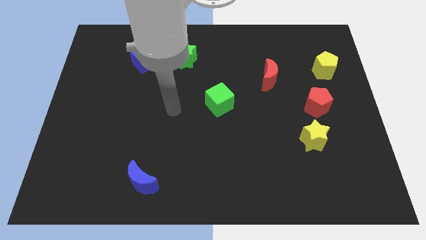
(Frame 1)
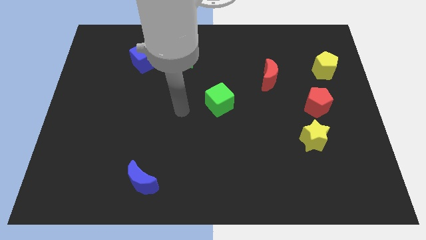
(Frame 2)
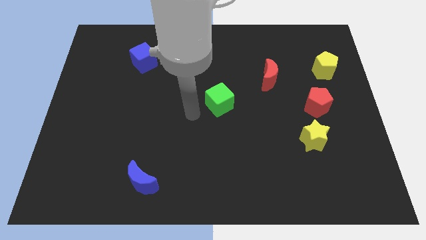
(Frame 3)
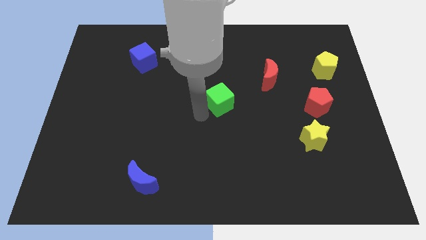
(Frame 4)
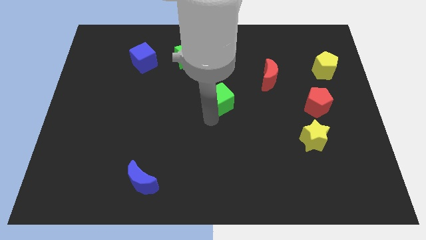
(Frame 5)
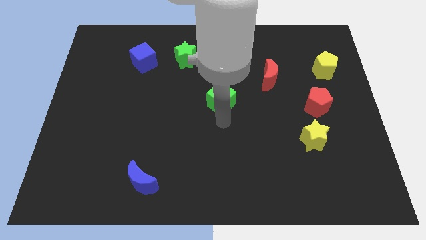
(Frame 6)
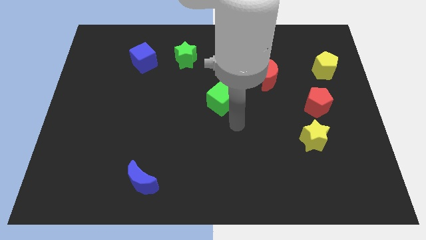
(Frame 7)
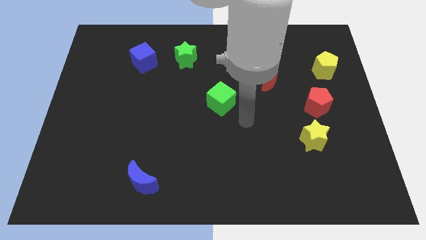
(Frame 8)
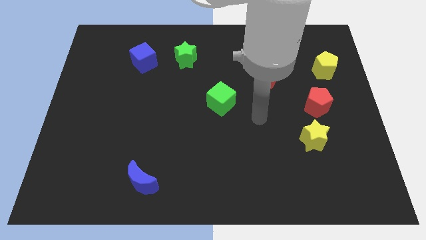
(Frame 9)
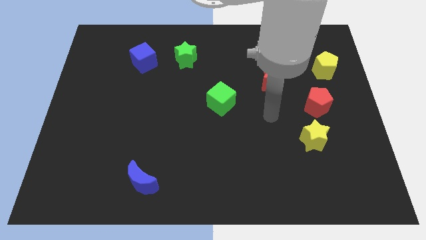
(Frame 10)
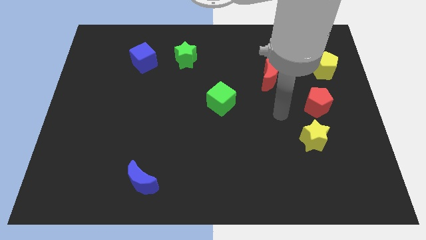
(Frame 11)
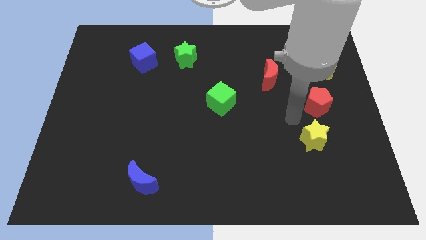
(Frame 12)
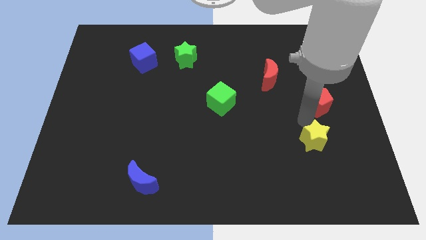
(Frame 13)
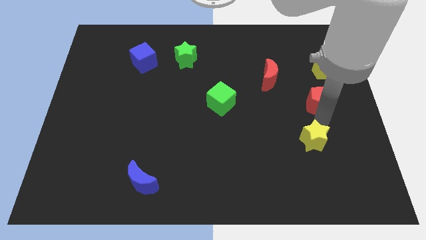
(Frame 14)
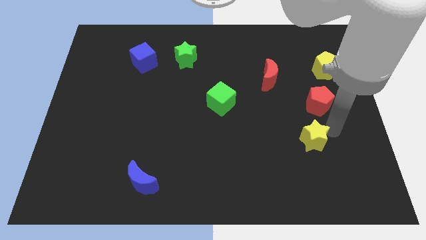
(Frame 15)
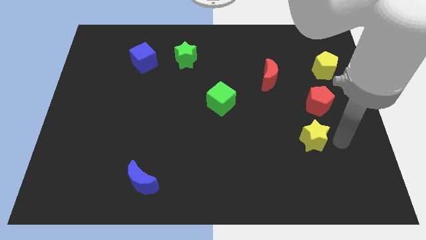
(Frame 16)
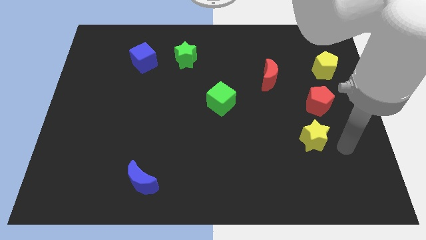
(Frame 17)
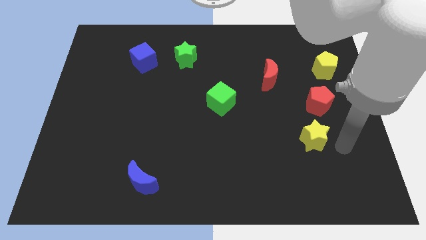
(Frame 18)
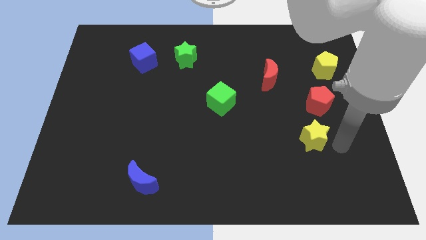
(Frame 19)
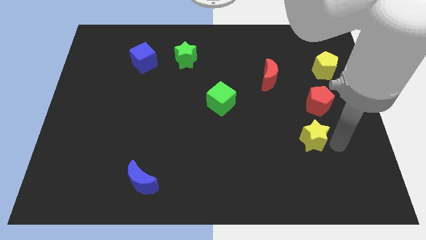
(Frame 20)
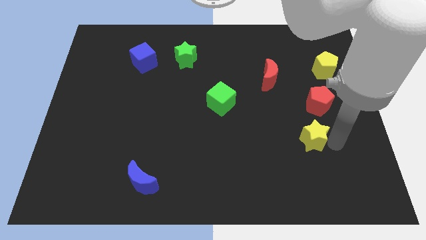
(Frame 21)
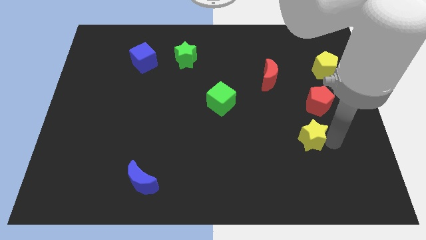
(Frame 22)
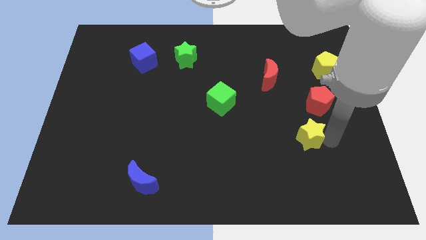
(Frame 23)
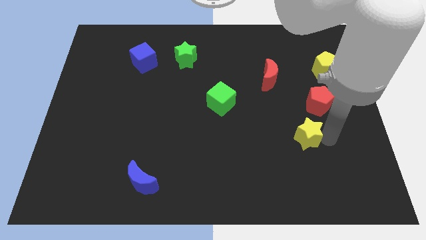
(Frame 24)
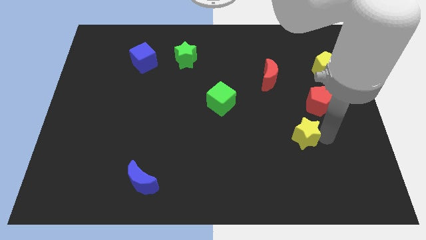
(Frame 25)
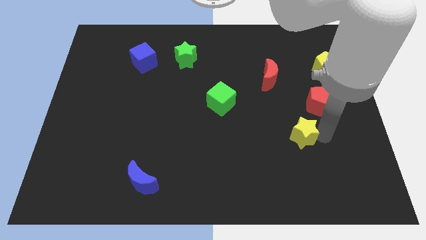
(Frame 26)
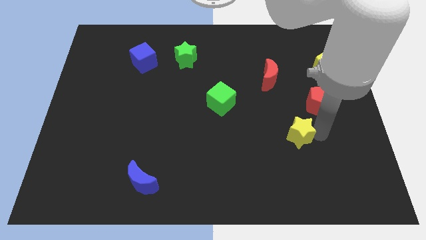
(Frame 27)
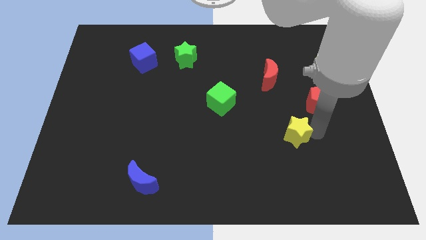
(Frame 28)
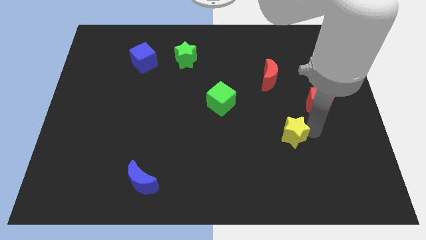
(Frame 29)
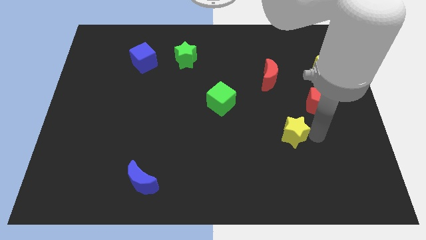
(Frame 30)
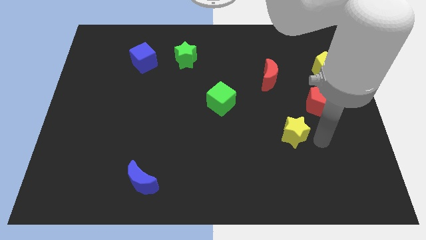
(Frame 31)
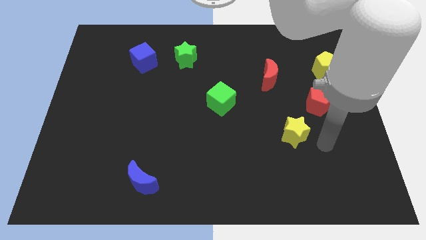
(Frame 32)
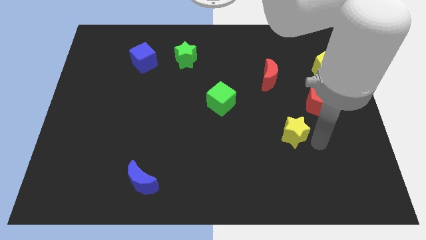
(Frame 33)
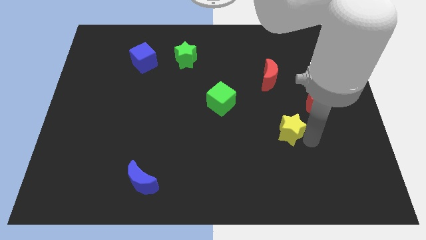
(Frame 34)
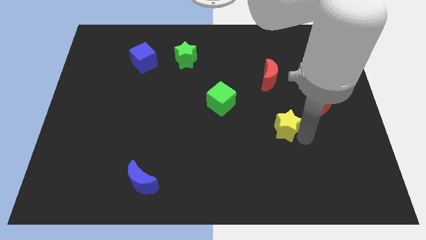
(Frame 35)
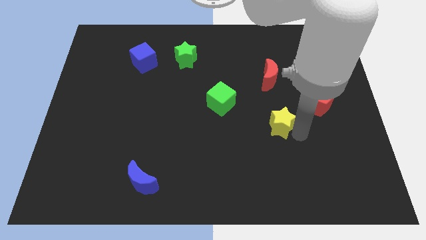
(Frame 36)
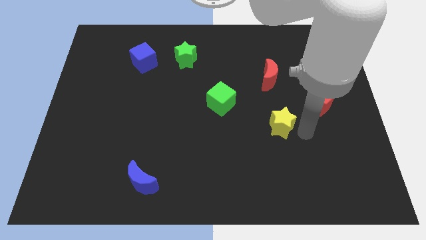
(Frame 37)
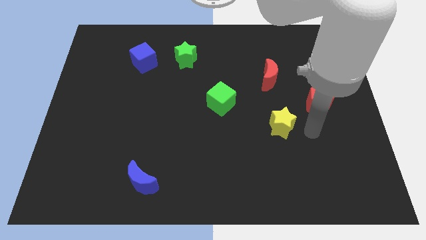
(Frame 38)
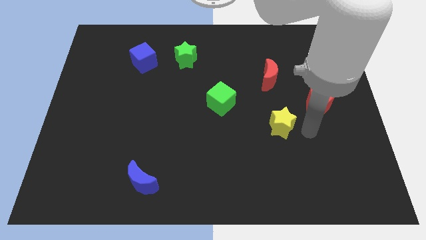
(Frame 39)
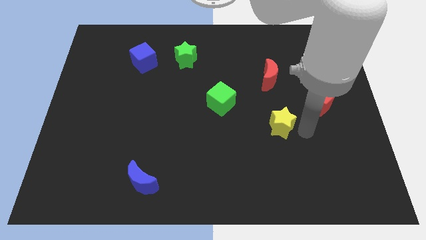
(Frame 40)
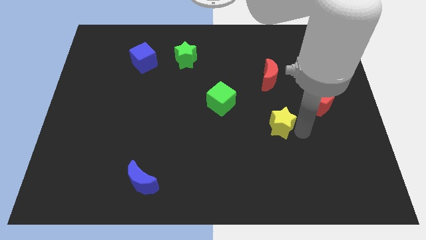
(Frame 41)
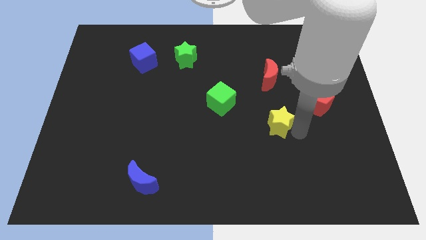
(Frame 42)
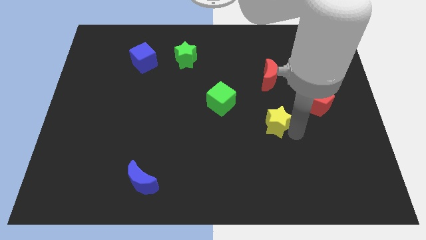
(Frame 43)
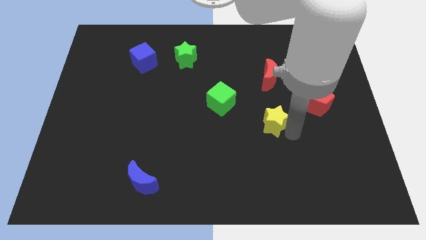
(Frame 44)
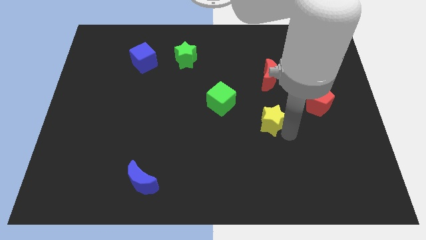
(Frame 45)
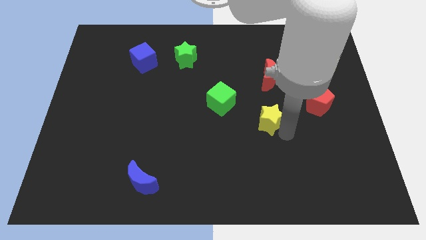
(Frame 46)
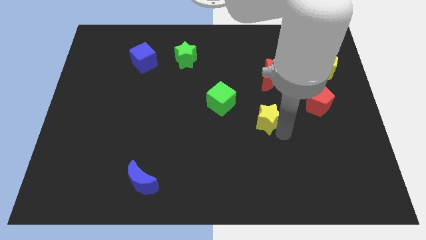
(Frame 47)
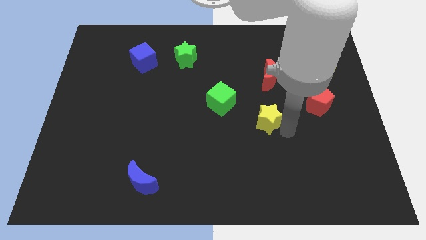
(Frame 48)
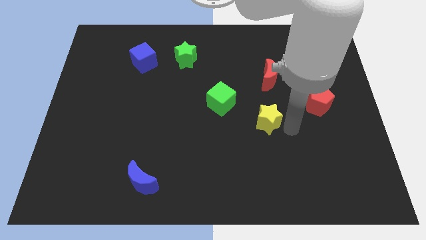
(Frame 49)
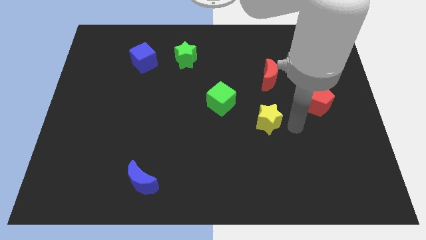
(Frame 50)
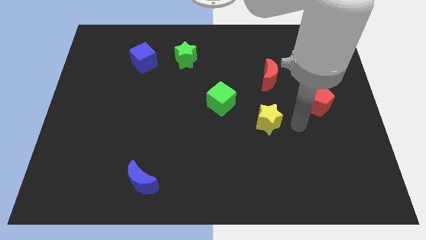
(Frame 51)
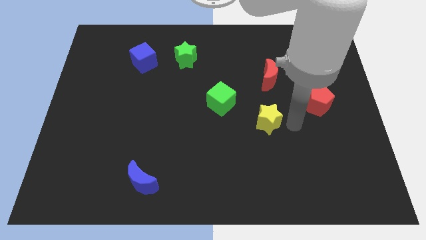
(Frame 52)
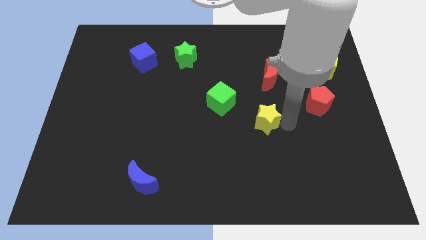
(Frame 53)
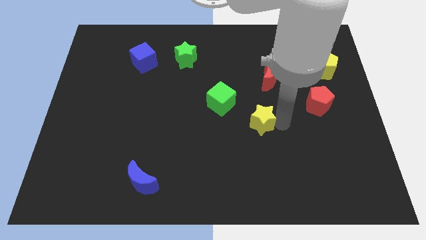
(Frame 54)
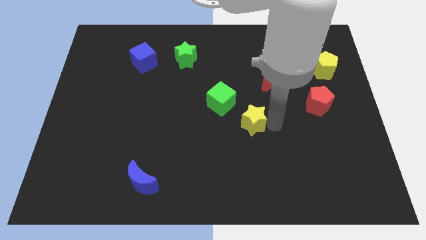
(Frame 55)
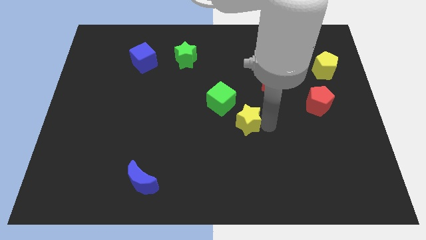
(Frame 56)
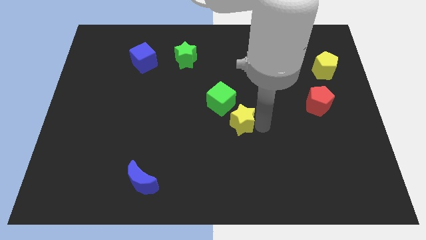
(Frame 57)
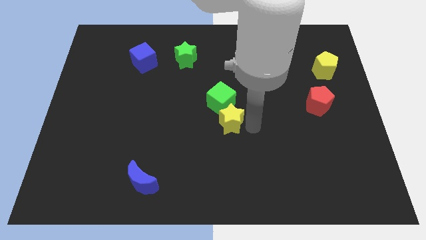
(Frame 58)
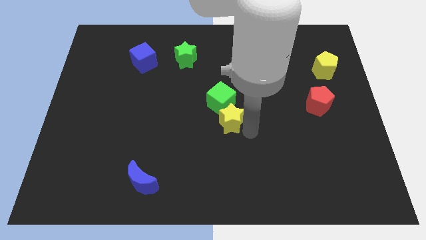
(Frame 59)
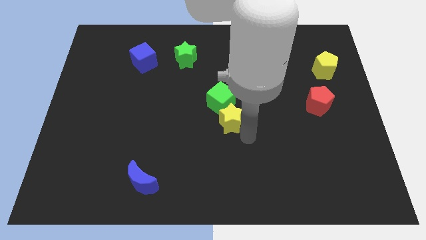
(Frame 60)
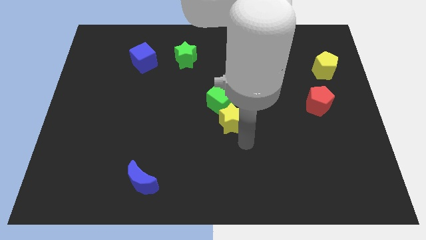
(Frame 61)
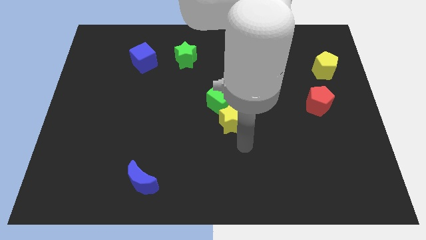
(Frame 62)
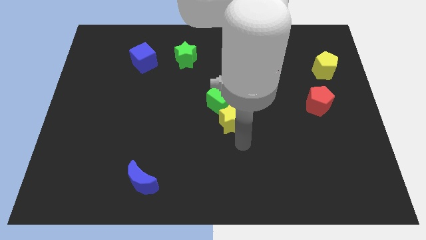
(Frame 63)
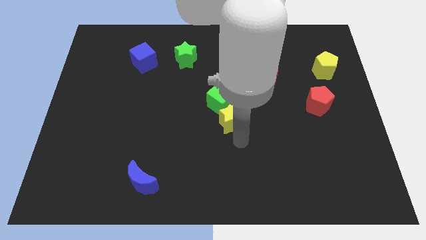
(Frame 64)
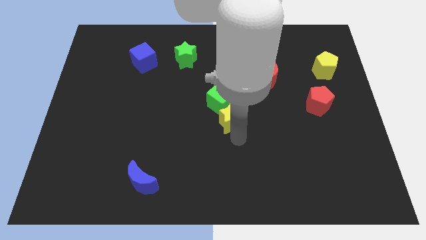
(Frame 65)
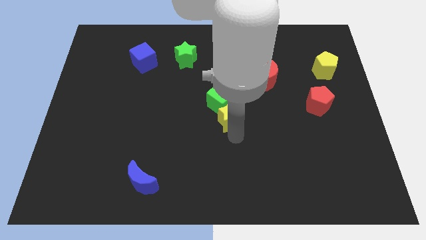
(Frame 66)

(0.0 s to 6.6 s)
push the yellow star close to the green cube

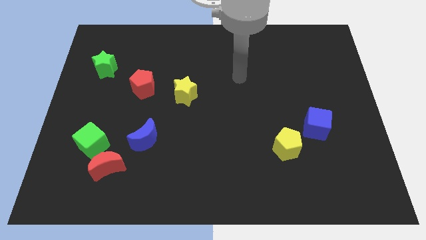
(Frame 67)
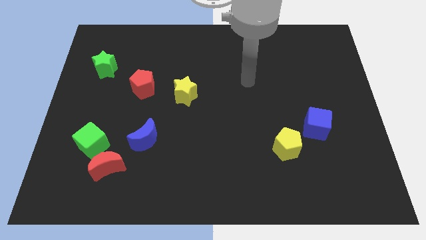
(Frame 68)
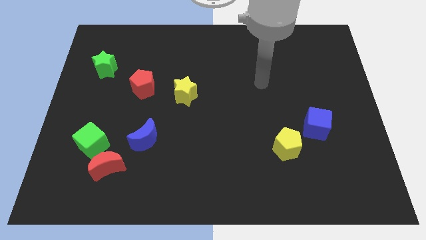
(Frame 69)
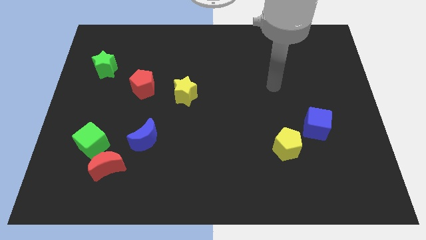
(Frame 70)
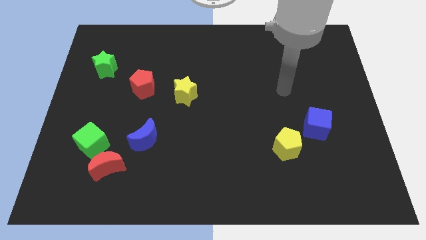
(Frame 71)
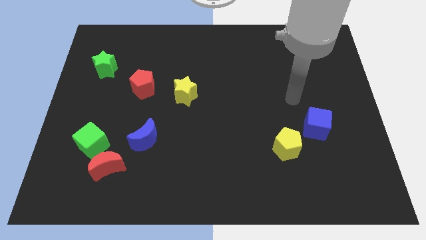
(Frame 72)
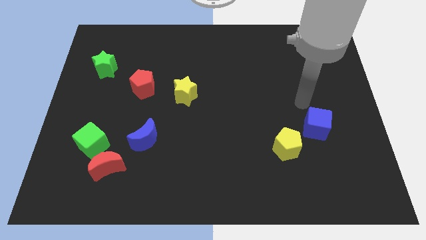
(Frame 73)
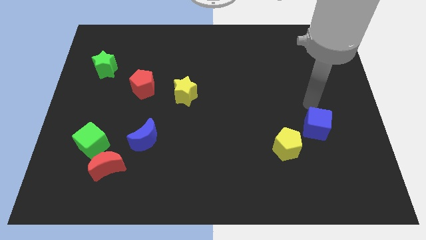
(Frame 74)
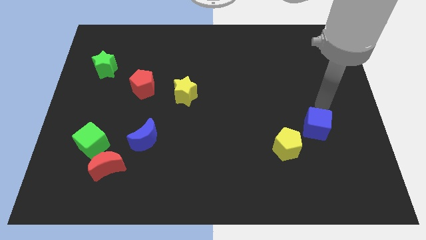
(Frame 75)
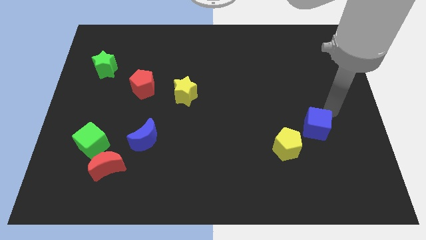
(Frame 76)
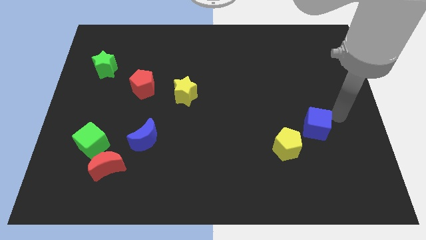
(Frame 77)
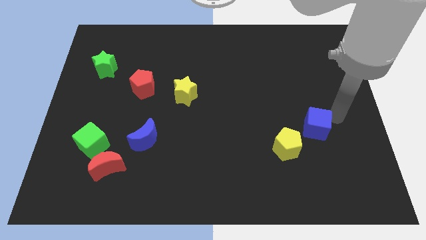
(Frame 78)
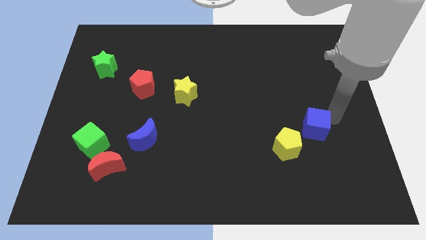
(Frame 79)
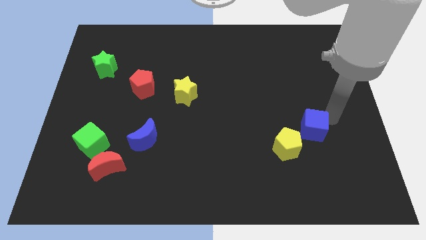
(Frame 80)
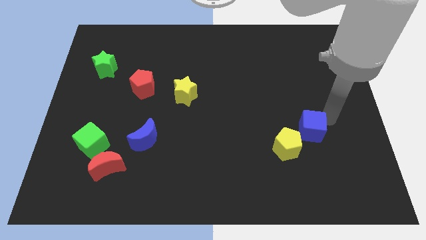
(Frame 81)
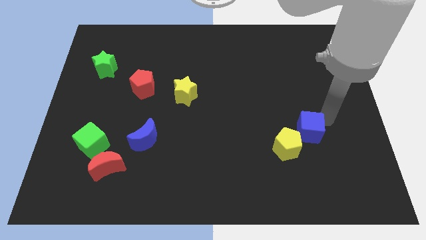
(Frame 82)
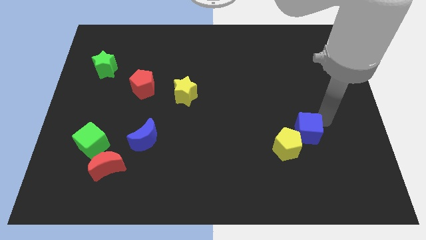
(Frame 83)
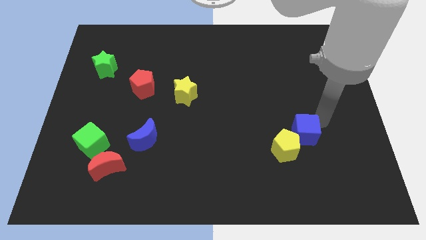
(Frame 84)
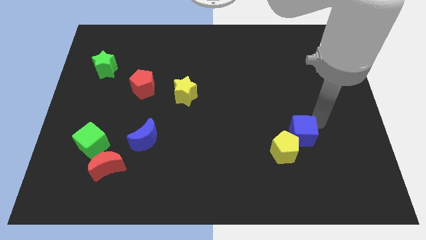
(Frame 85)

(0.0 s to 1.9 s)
move the blue cube towards the yellow pentagon
